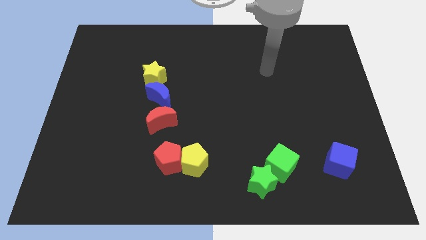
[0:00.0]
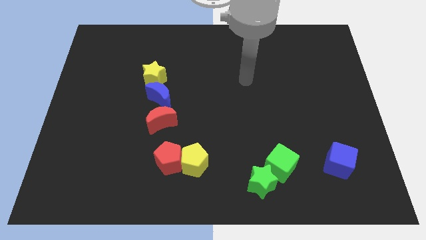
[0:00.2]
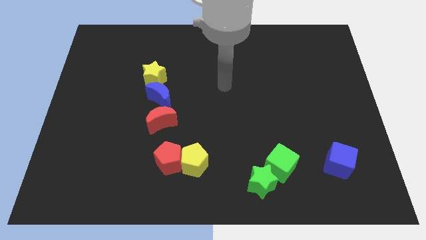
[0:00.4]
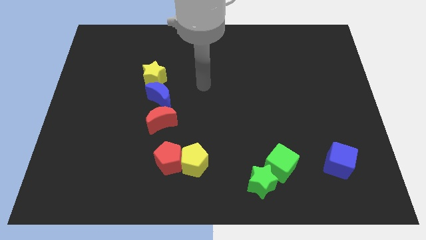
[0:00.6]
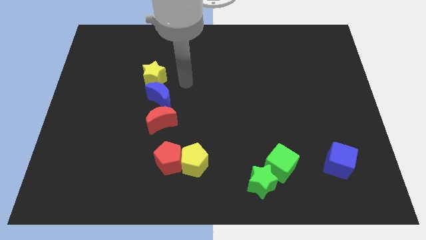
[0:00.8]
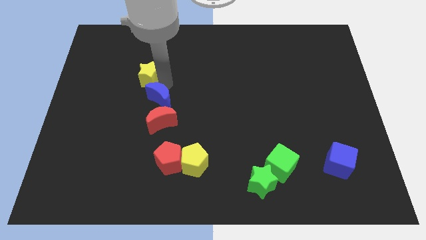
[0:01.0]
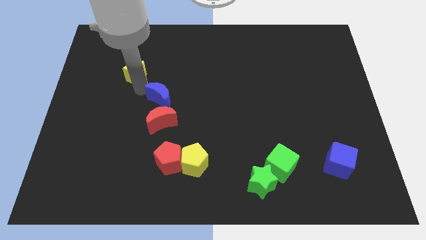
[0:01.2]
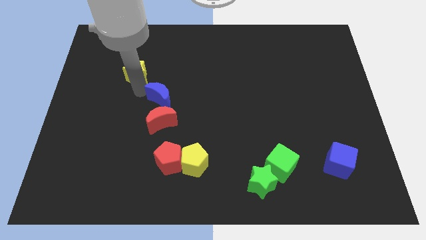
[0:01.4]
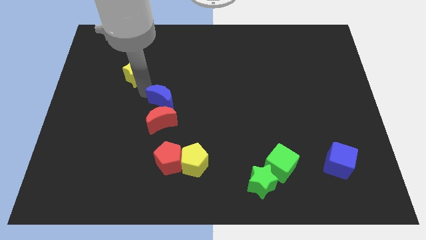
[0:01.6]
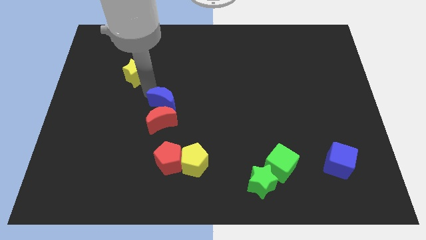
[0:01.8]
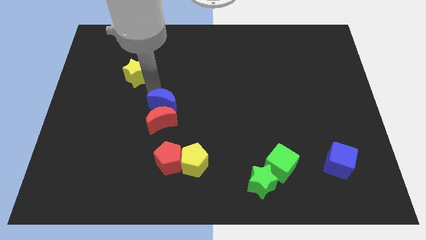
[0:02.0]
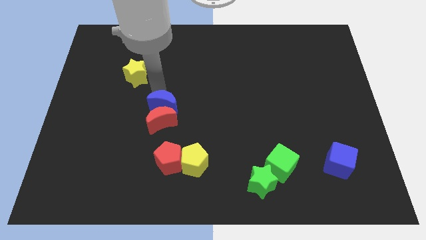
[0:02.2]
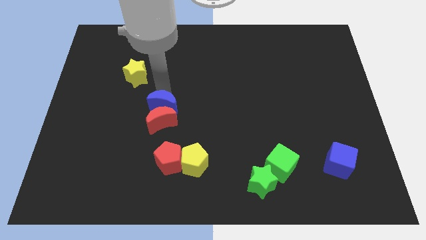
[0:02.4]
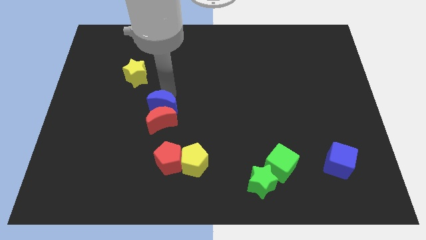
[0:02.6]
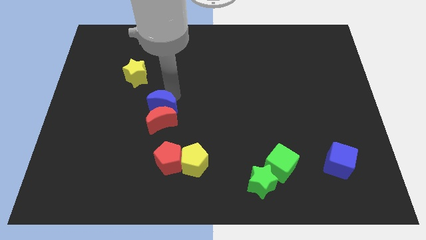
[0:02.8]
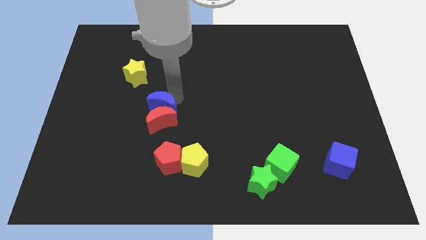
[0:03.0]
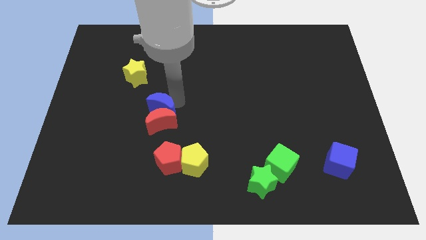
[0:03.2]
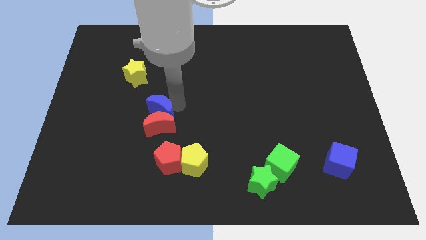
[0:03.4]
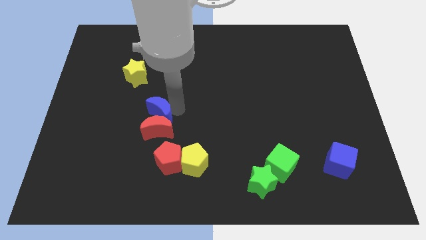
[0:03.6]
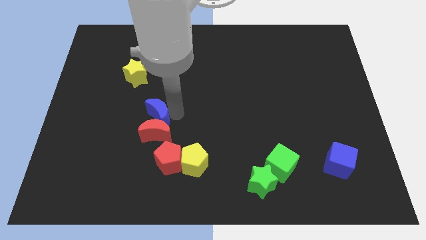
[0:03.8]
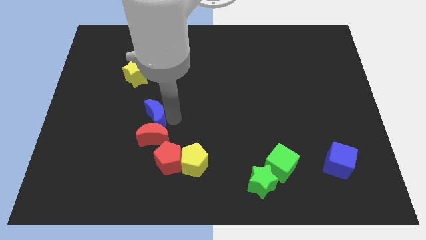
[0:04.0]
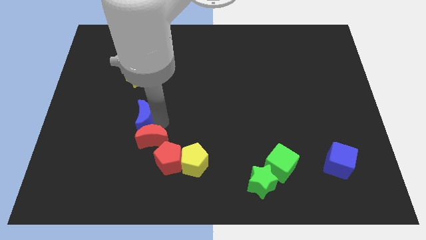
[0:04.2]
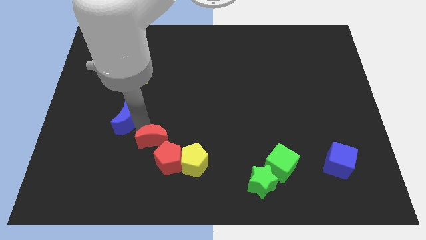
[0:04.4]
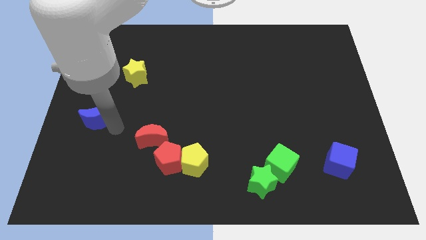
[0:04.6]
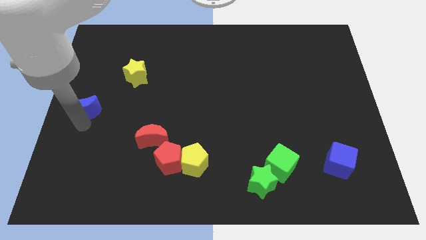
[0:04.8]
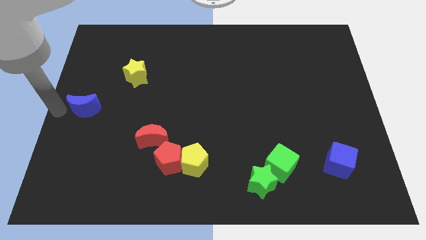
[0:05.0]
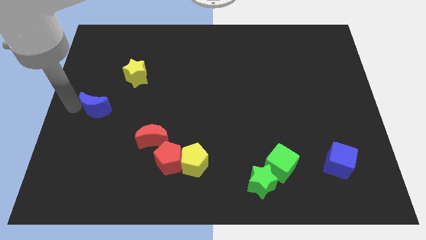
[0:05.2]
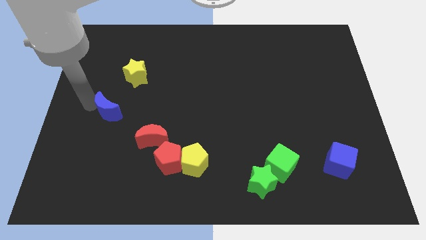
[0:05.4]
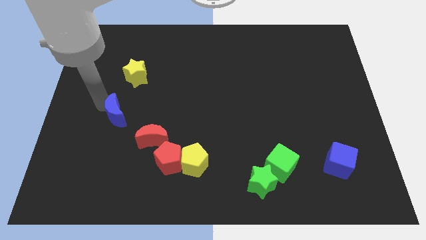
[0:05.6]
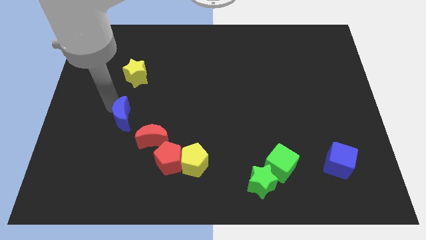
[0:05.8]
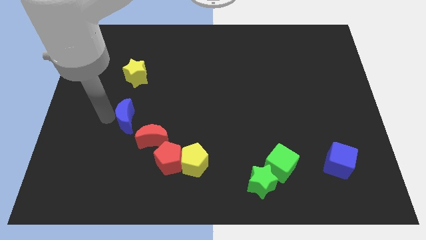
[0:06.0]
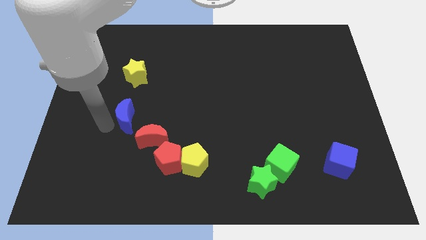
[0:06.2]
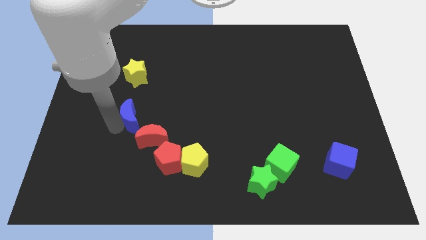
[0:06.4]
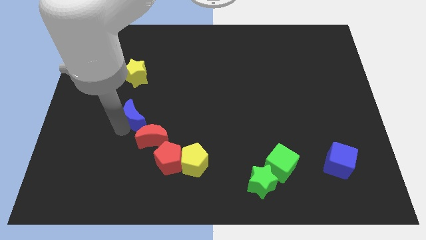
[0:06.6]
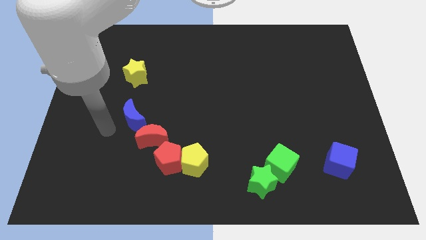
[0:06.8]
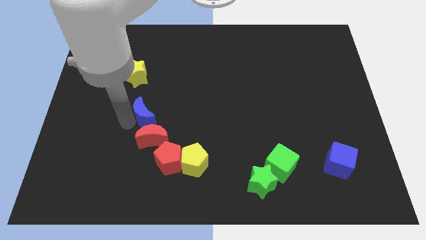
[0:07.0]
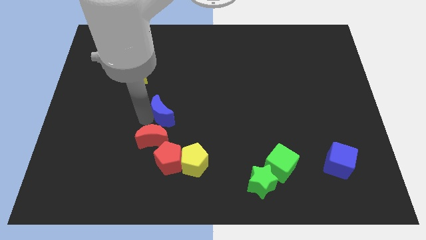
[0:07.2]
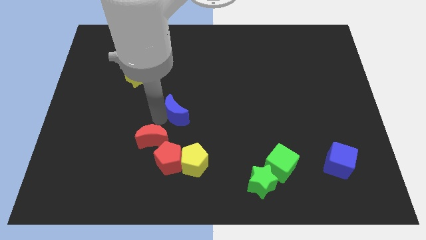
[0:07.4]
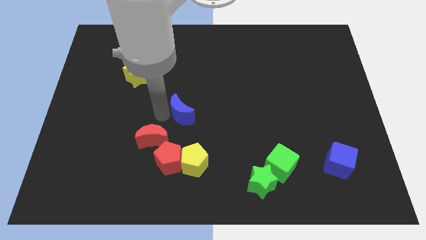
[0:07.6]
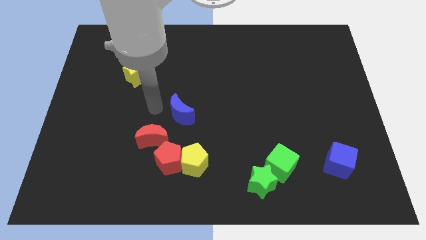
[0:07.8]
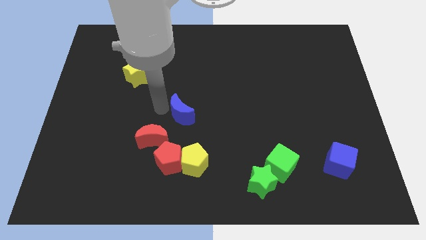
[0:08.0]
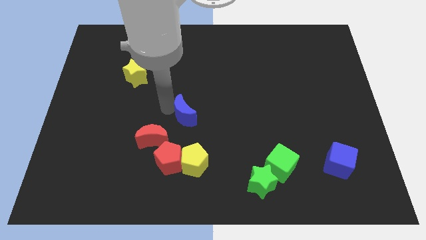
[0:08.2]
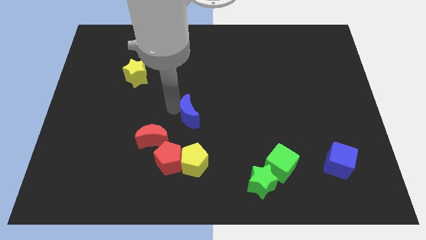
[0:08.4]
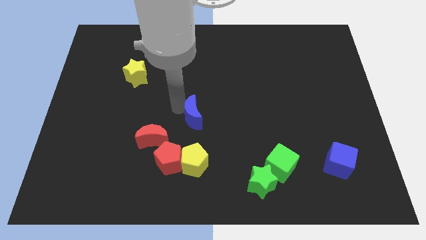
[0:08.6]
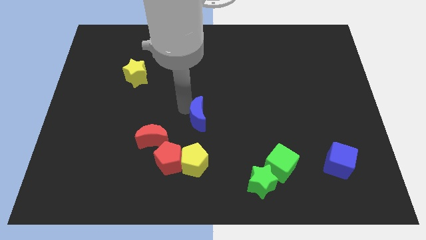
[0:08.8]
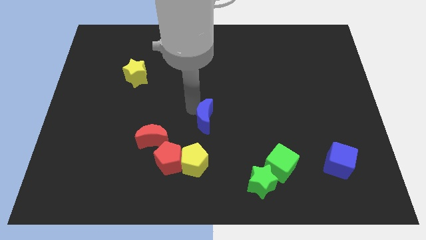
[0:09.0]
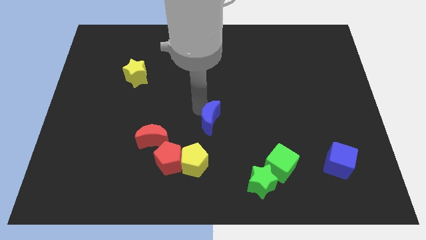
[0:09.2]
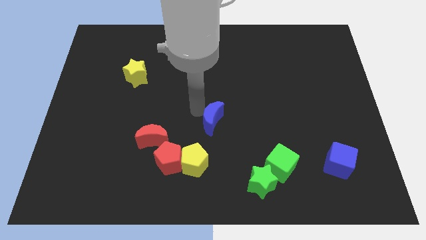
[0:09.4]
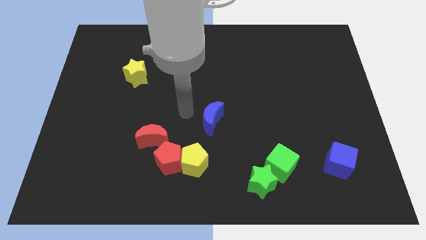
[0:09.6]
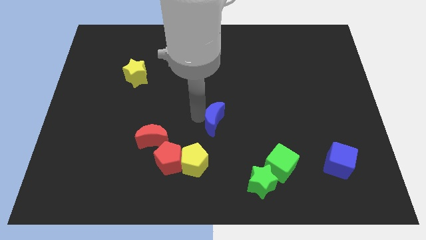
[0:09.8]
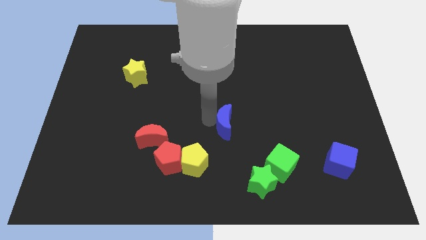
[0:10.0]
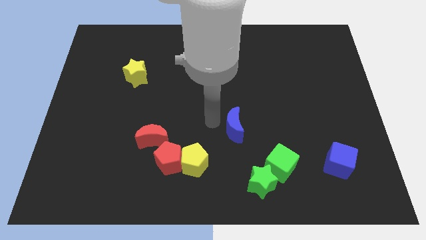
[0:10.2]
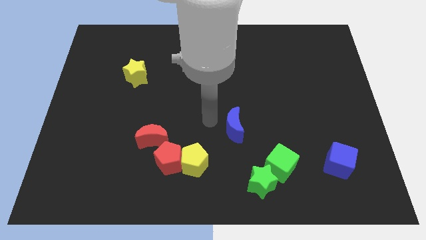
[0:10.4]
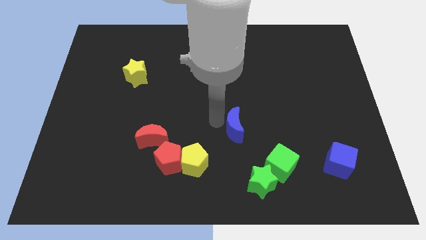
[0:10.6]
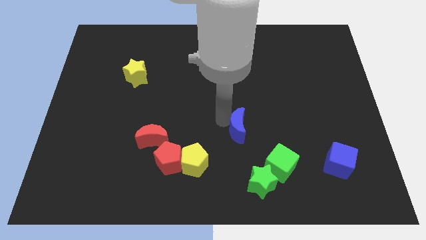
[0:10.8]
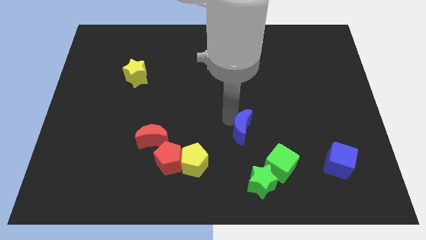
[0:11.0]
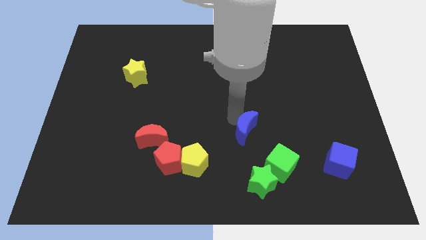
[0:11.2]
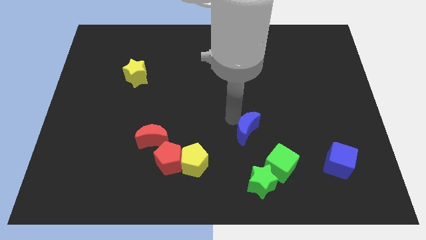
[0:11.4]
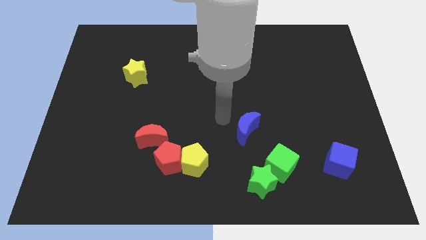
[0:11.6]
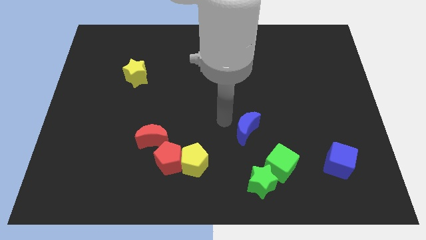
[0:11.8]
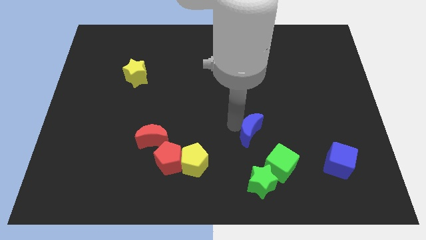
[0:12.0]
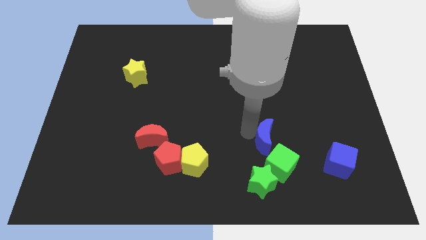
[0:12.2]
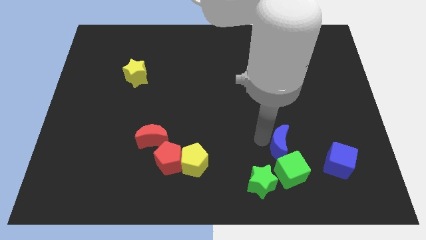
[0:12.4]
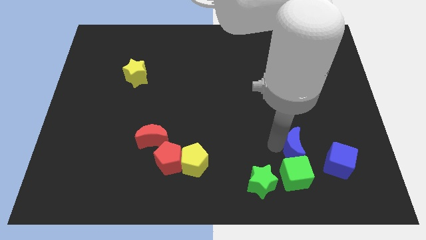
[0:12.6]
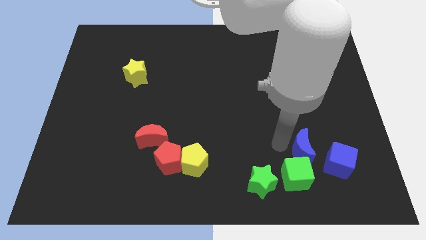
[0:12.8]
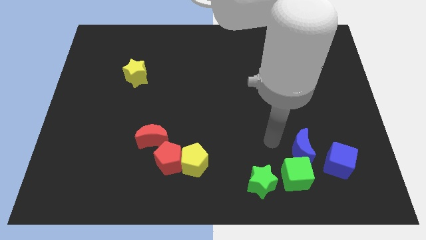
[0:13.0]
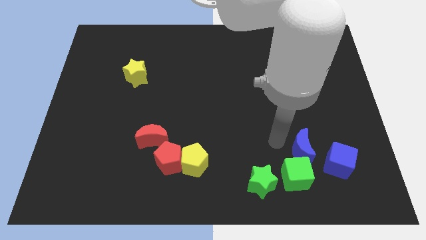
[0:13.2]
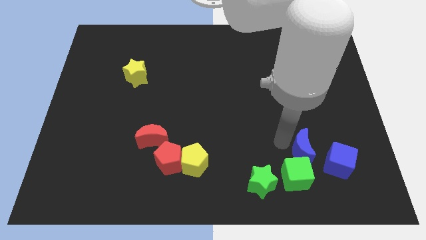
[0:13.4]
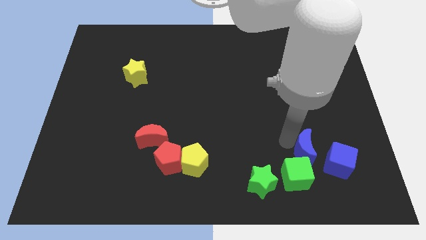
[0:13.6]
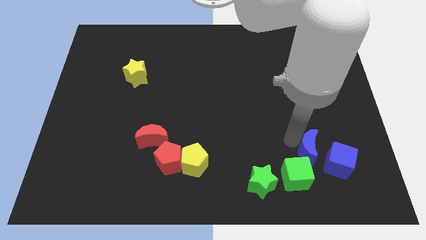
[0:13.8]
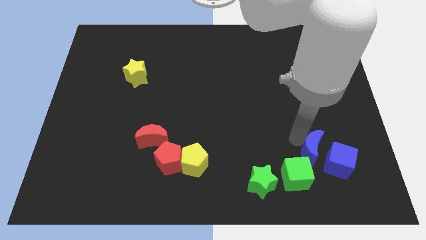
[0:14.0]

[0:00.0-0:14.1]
push the blue moon to the blue cube

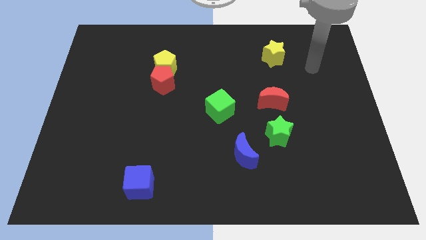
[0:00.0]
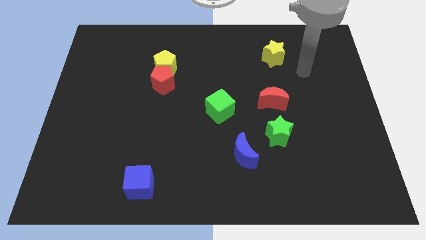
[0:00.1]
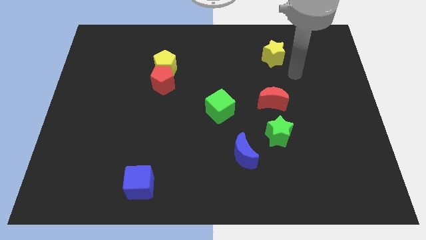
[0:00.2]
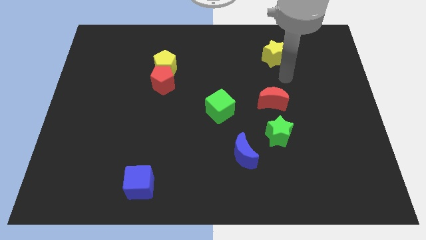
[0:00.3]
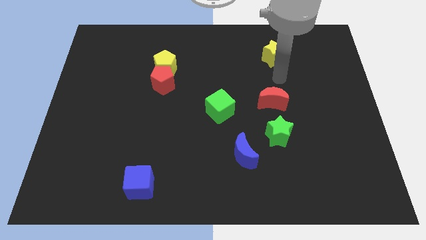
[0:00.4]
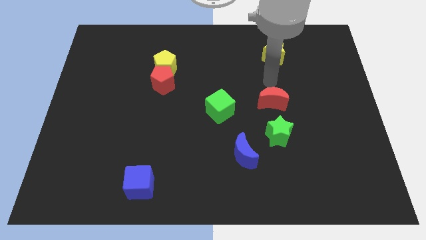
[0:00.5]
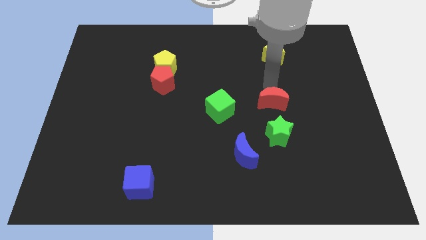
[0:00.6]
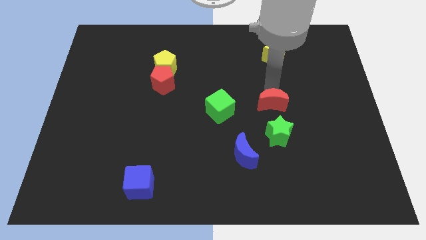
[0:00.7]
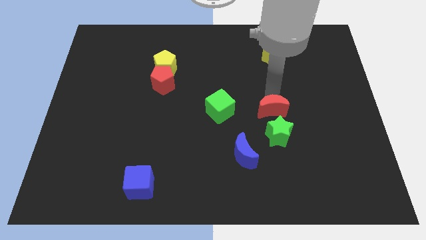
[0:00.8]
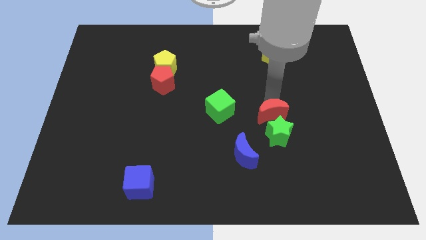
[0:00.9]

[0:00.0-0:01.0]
push the red moon next to the green star
